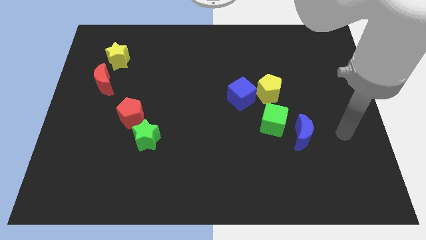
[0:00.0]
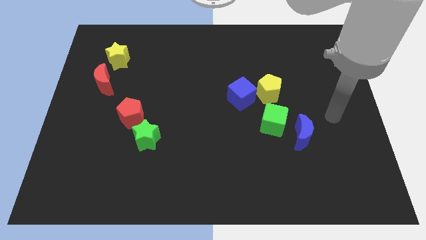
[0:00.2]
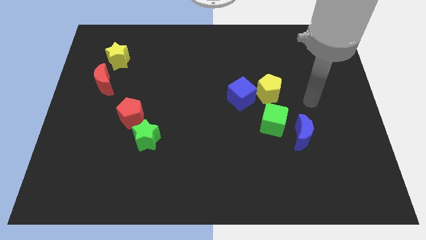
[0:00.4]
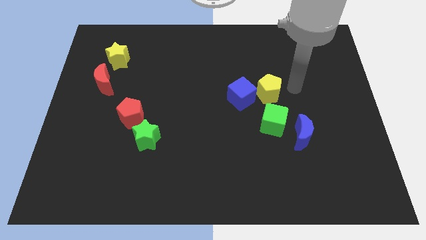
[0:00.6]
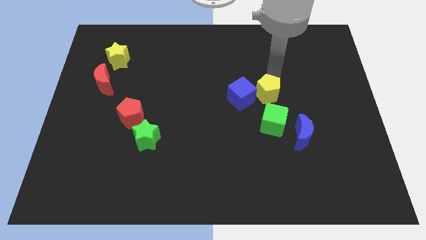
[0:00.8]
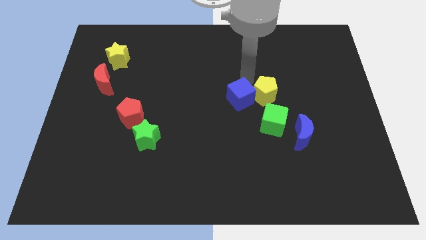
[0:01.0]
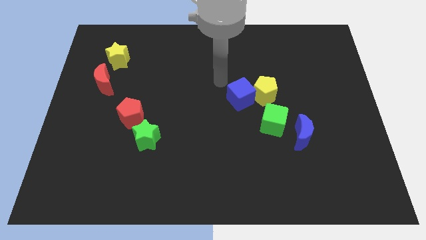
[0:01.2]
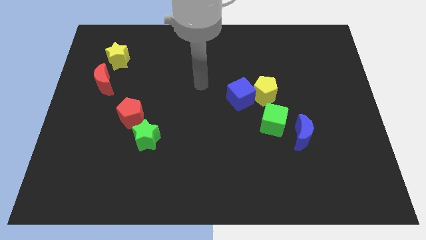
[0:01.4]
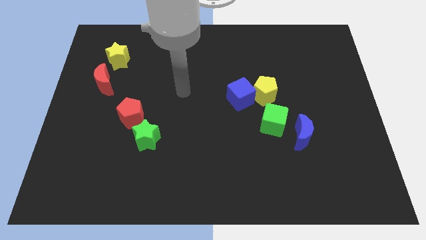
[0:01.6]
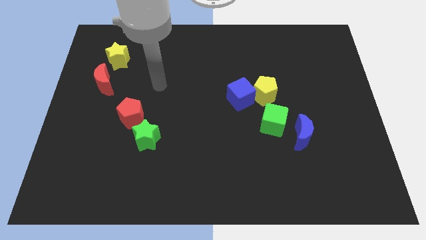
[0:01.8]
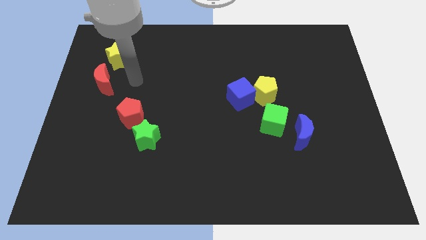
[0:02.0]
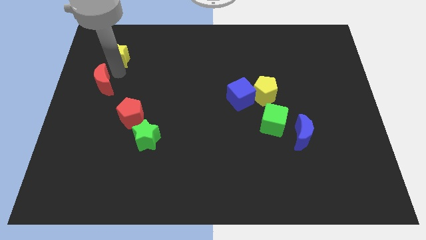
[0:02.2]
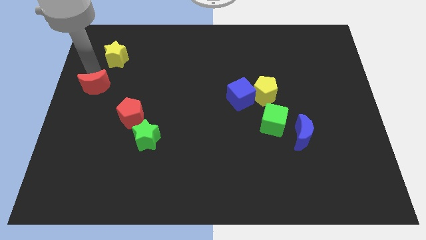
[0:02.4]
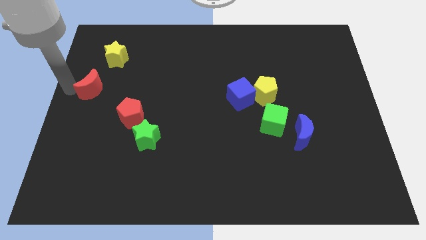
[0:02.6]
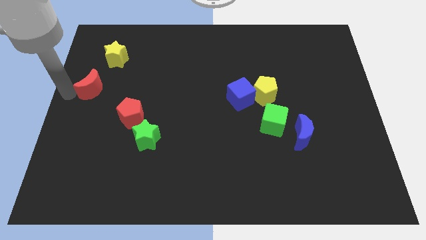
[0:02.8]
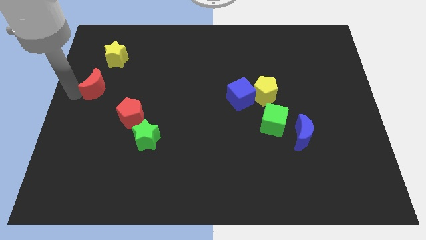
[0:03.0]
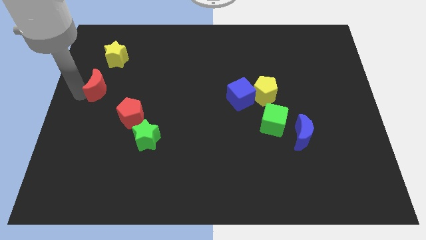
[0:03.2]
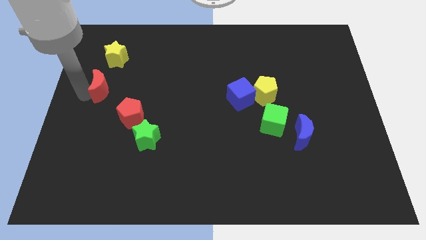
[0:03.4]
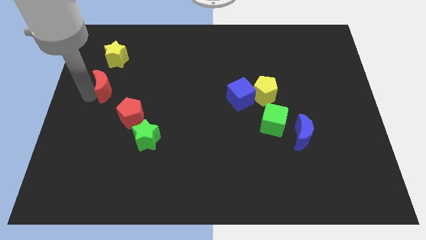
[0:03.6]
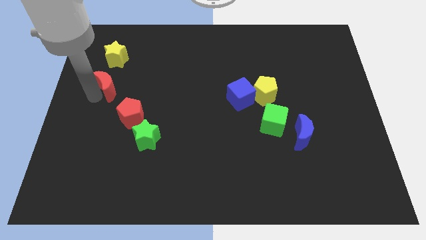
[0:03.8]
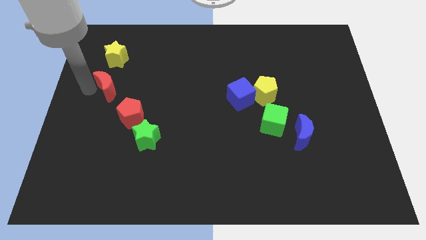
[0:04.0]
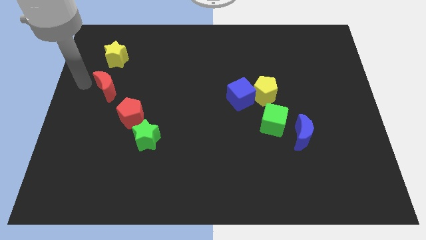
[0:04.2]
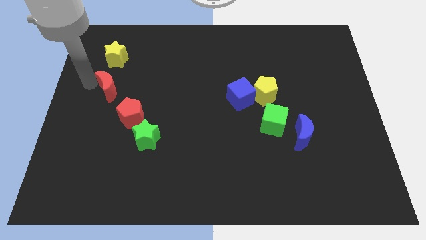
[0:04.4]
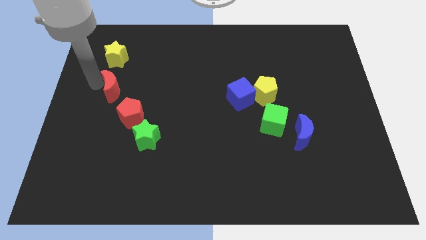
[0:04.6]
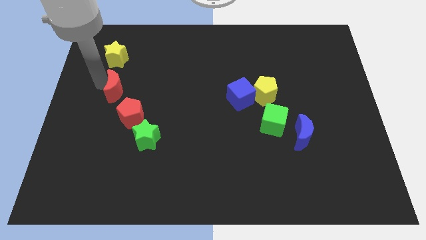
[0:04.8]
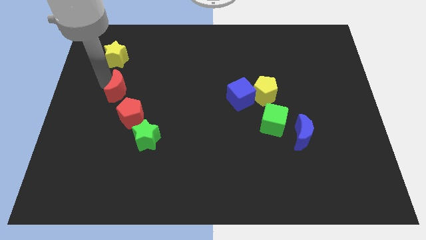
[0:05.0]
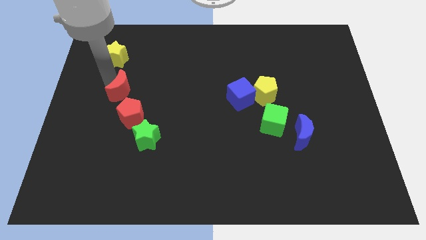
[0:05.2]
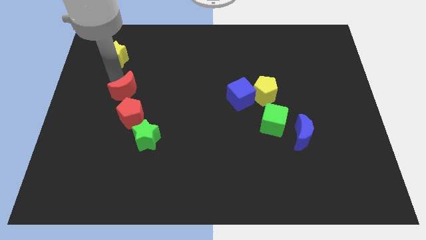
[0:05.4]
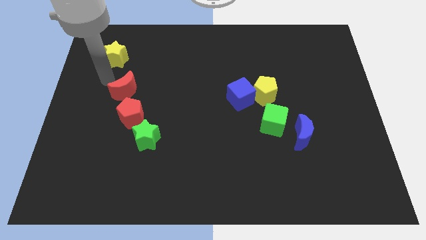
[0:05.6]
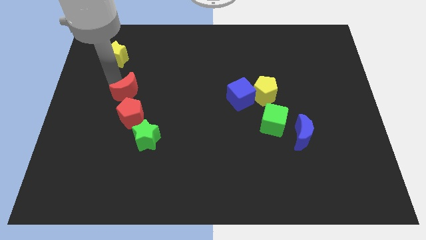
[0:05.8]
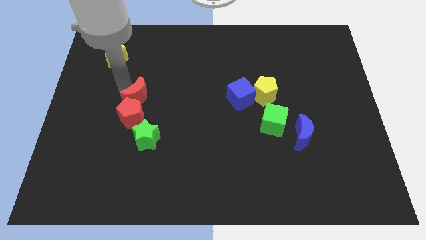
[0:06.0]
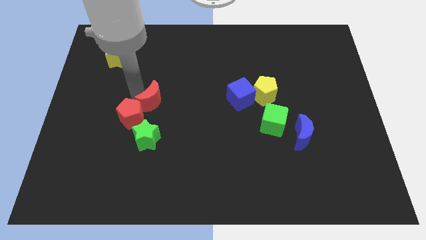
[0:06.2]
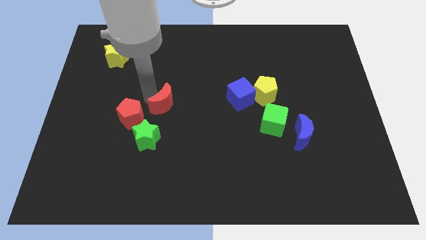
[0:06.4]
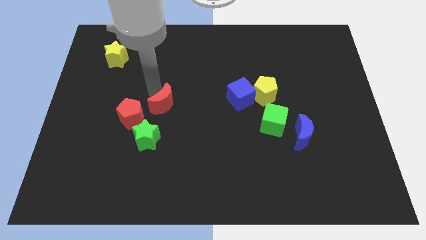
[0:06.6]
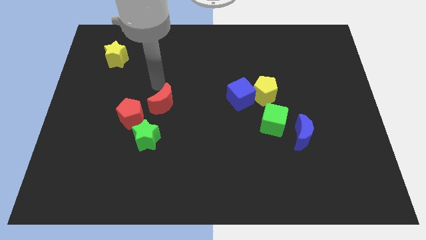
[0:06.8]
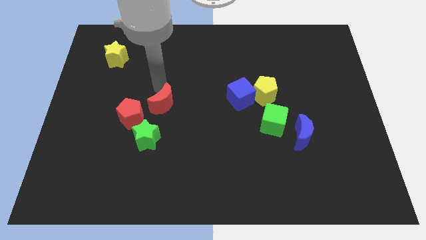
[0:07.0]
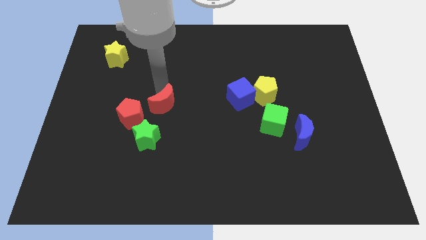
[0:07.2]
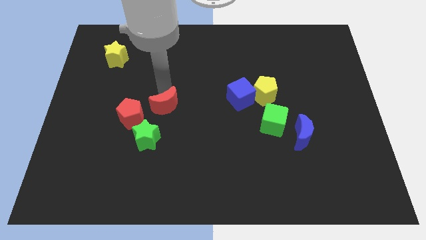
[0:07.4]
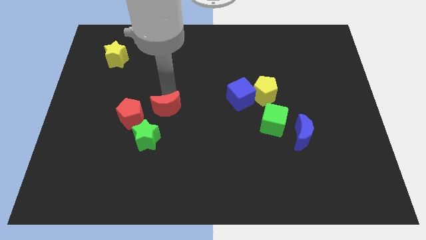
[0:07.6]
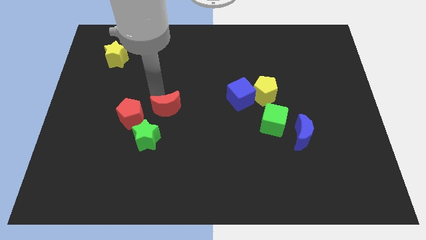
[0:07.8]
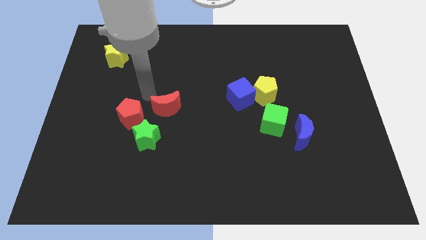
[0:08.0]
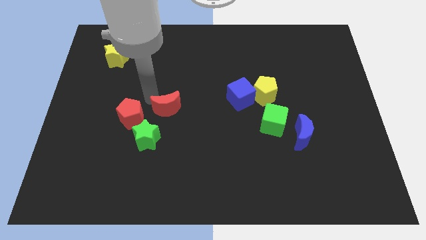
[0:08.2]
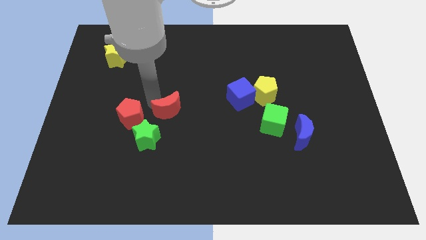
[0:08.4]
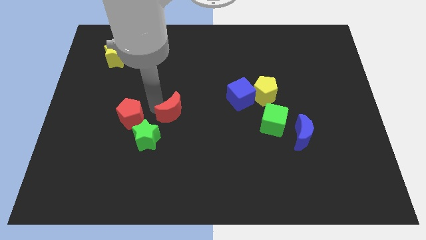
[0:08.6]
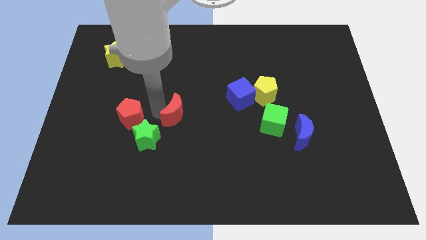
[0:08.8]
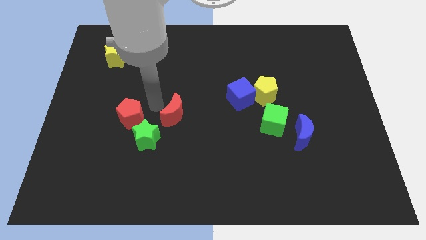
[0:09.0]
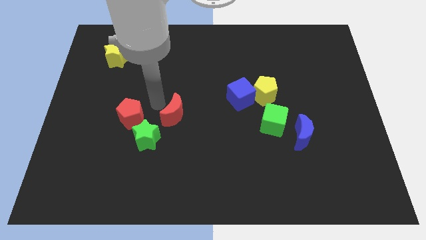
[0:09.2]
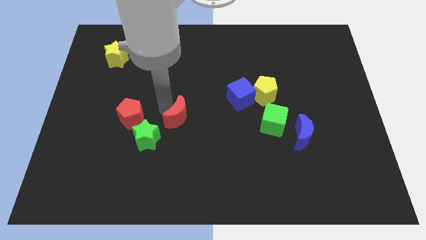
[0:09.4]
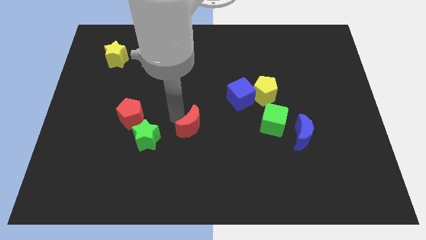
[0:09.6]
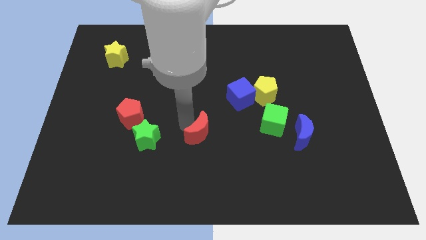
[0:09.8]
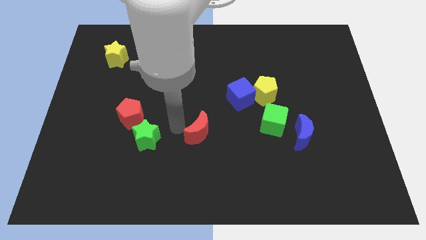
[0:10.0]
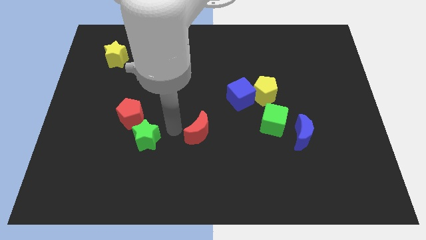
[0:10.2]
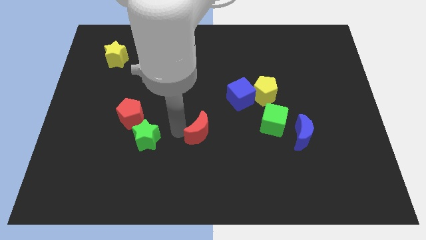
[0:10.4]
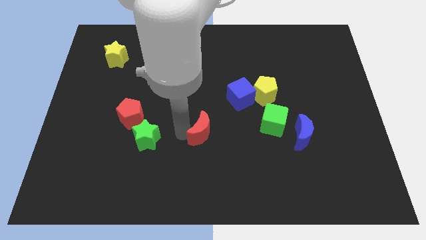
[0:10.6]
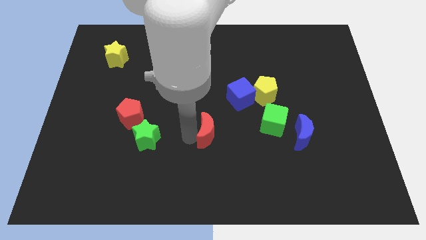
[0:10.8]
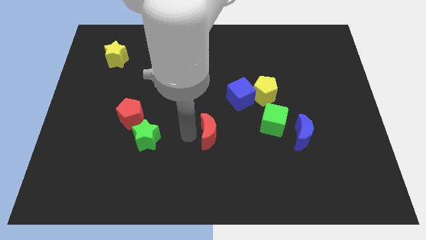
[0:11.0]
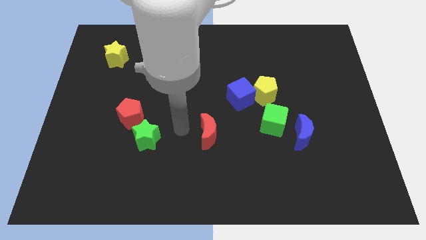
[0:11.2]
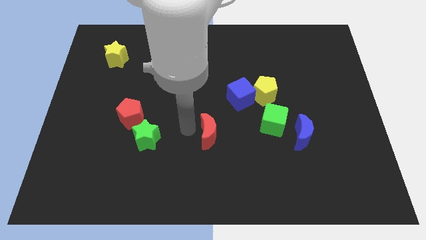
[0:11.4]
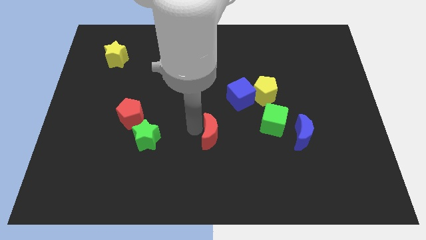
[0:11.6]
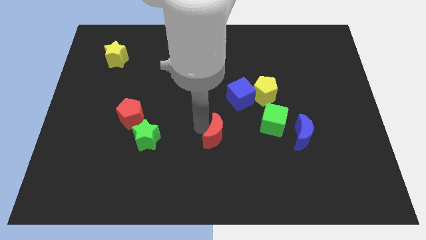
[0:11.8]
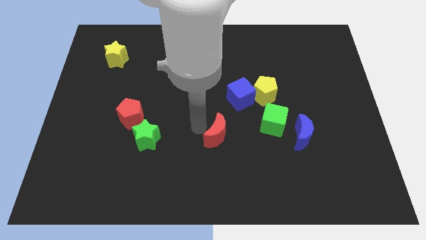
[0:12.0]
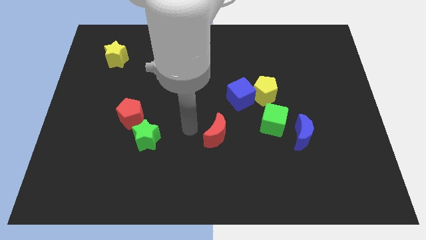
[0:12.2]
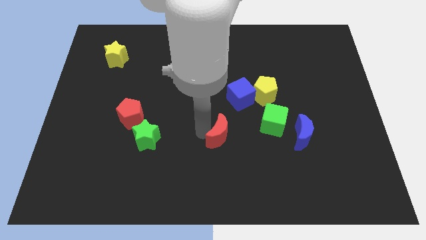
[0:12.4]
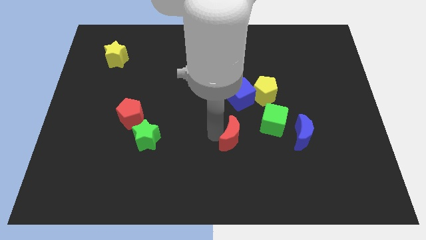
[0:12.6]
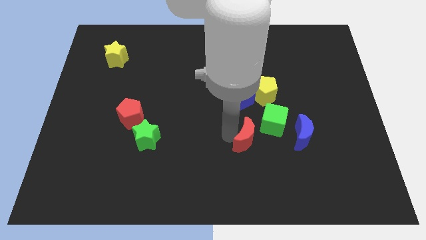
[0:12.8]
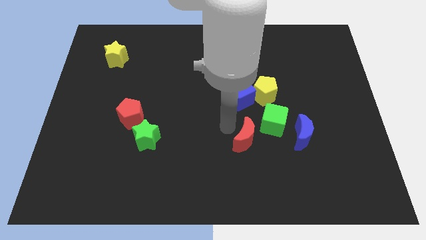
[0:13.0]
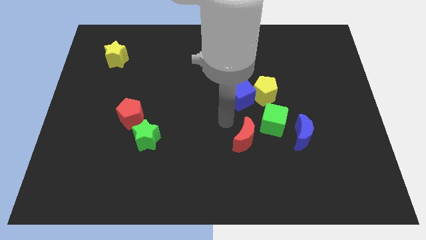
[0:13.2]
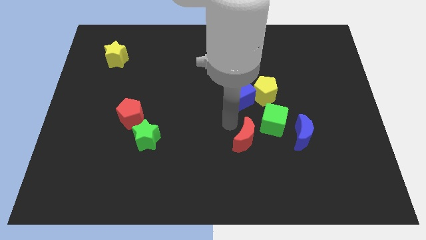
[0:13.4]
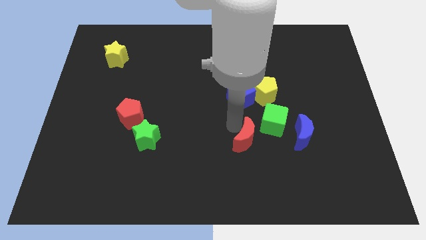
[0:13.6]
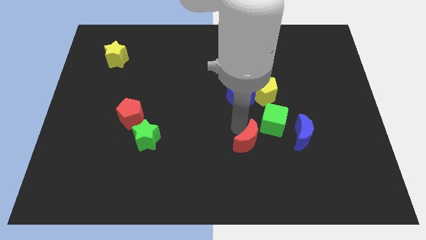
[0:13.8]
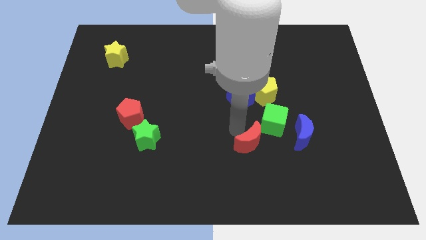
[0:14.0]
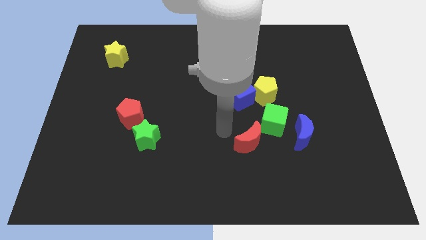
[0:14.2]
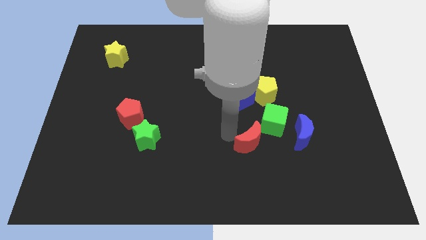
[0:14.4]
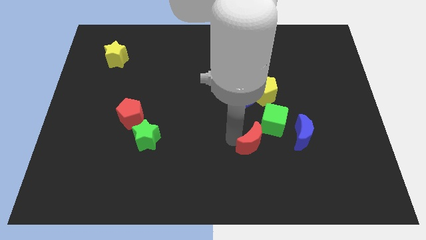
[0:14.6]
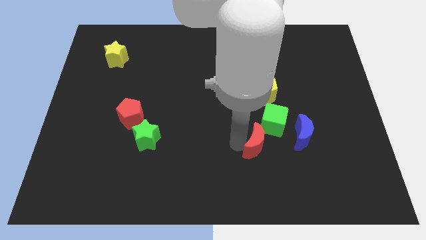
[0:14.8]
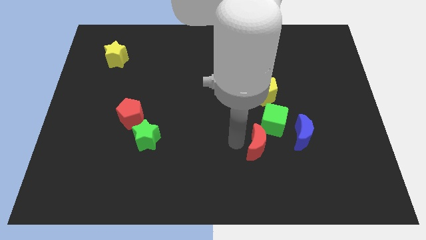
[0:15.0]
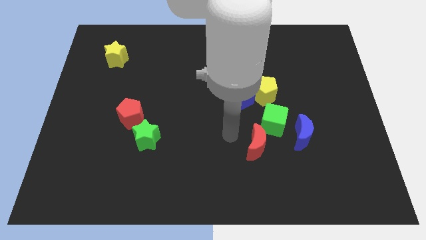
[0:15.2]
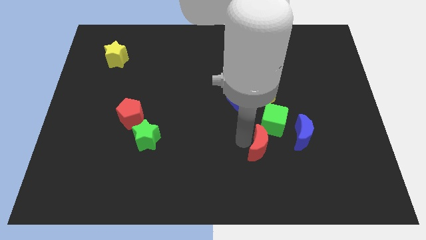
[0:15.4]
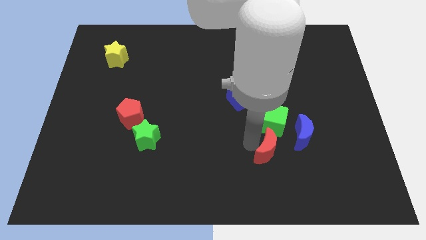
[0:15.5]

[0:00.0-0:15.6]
slide the red moon to the bottom left of the blue moon
